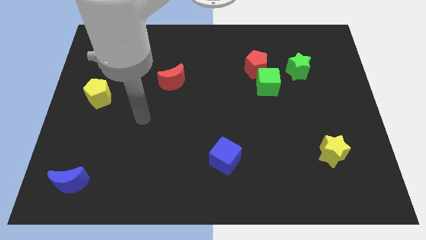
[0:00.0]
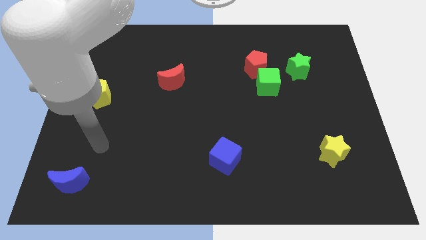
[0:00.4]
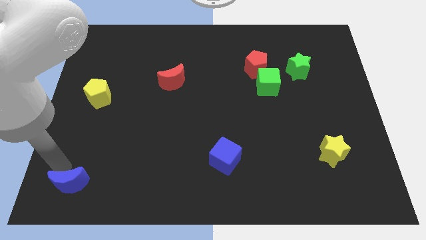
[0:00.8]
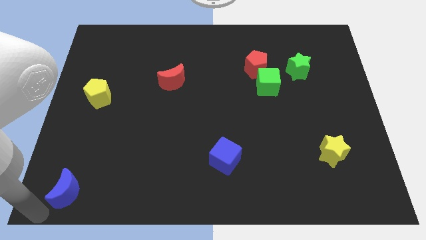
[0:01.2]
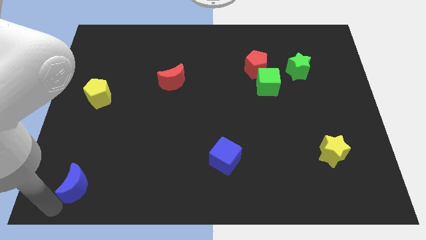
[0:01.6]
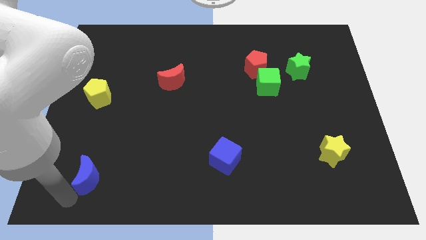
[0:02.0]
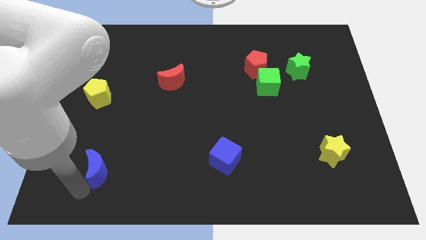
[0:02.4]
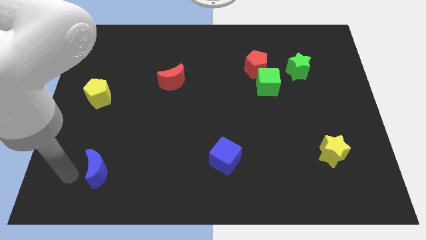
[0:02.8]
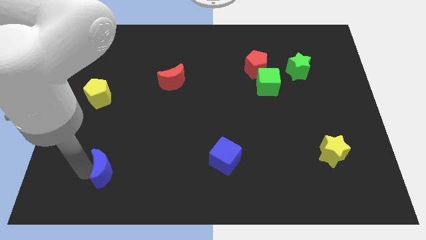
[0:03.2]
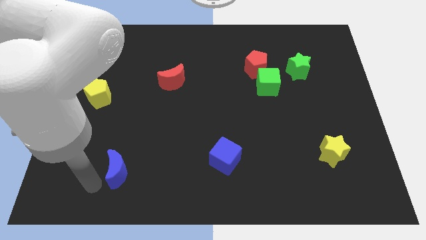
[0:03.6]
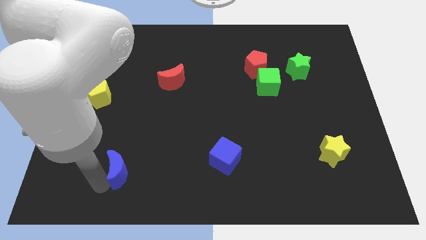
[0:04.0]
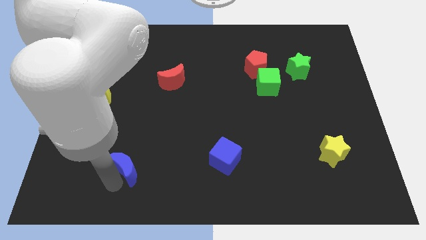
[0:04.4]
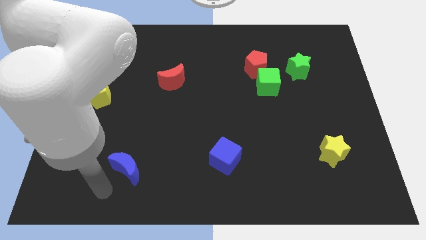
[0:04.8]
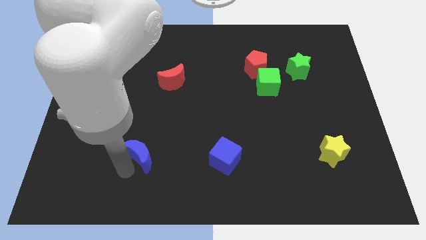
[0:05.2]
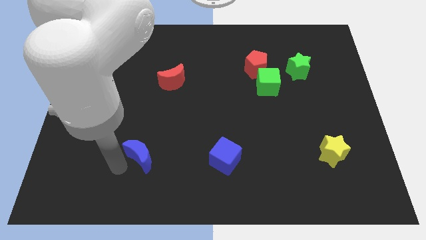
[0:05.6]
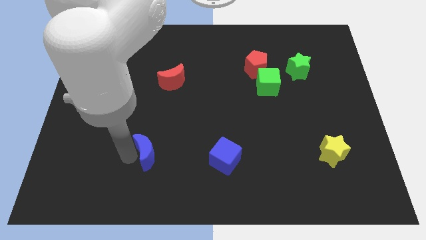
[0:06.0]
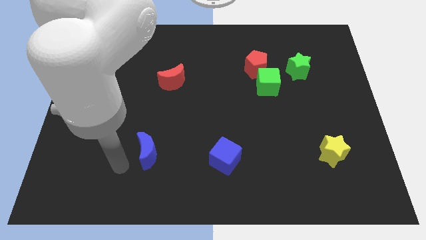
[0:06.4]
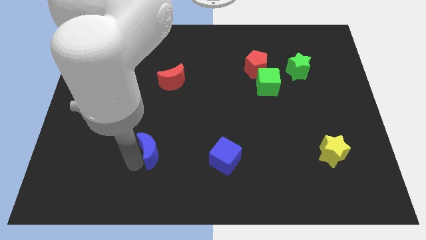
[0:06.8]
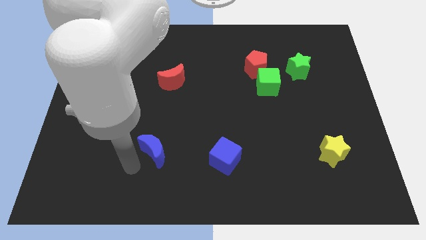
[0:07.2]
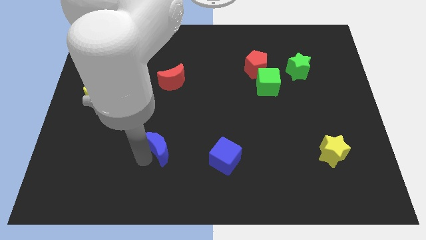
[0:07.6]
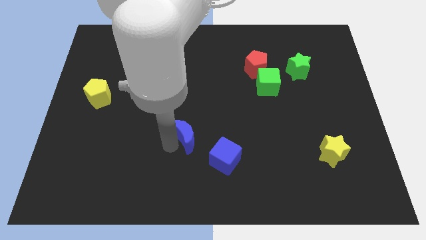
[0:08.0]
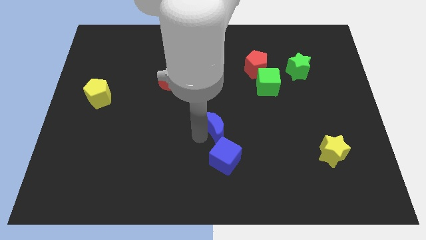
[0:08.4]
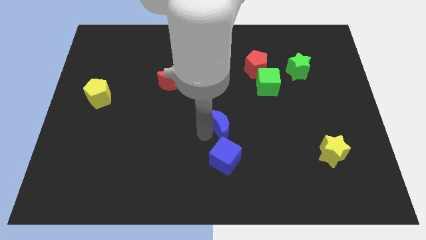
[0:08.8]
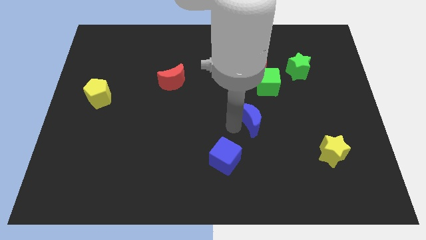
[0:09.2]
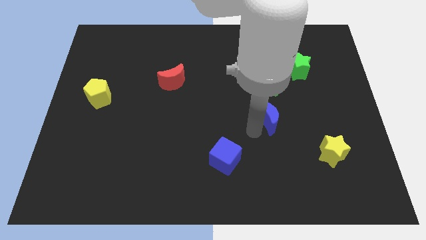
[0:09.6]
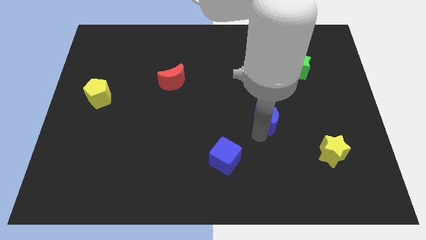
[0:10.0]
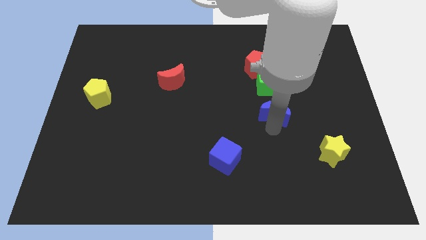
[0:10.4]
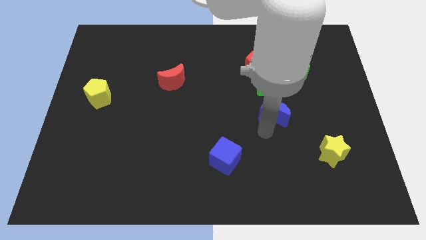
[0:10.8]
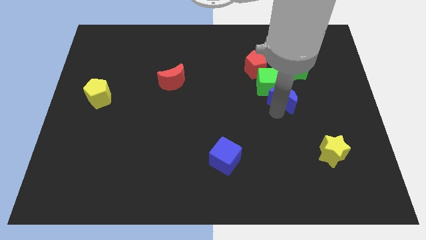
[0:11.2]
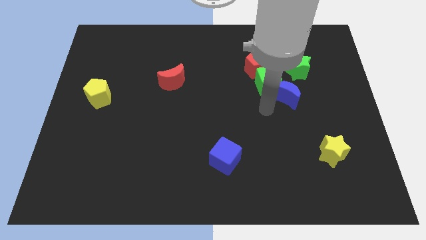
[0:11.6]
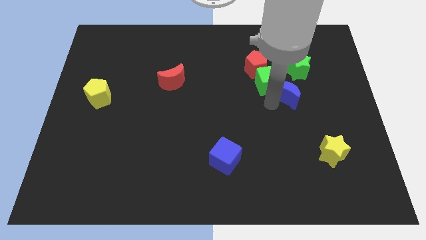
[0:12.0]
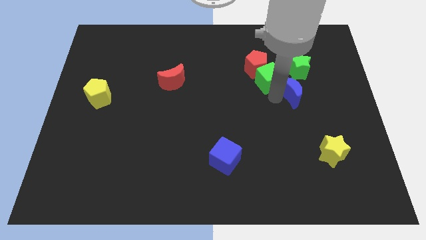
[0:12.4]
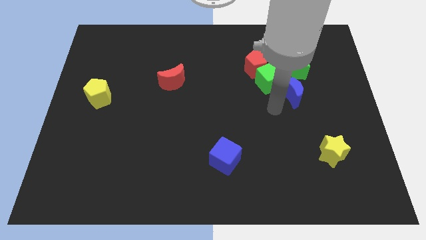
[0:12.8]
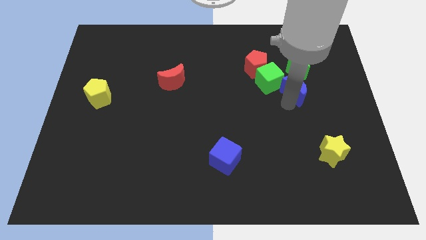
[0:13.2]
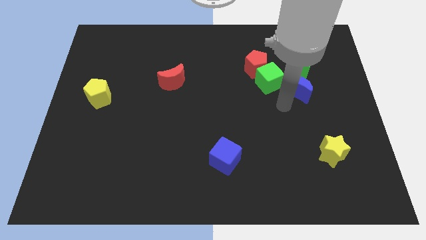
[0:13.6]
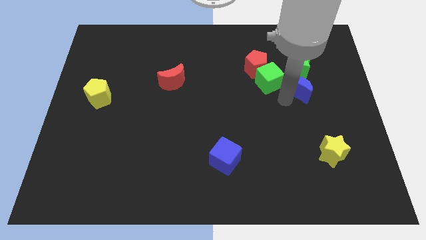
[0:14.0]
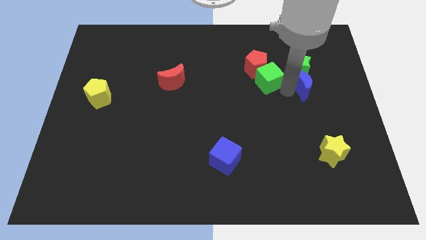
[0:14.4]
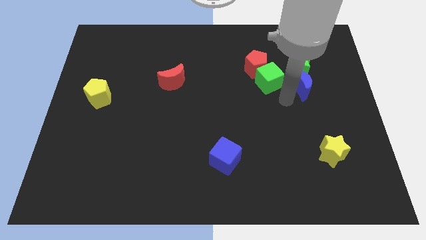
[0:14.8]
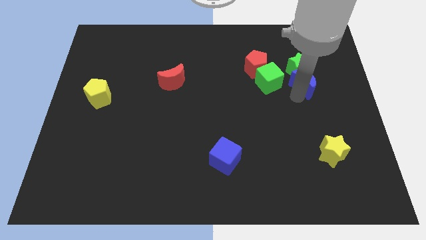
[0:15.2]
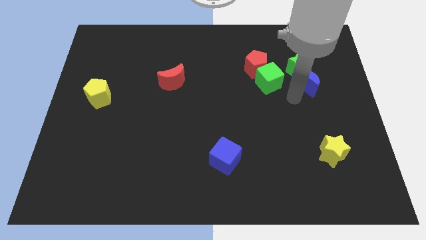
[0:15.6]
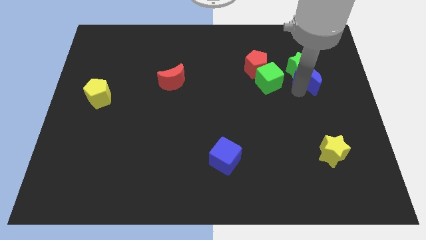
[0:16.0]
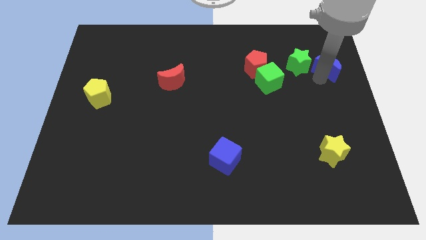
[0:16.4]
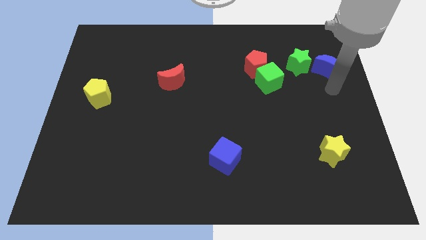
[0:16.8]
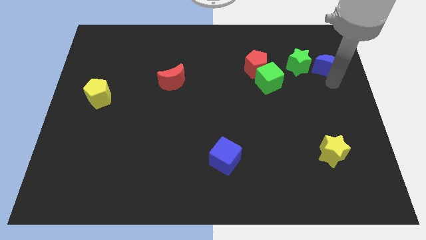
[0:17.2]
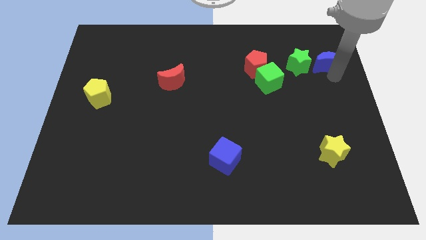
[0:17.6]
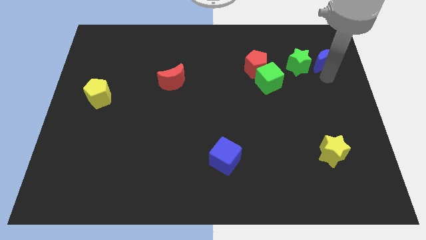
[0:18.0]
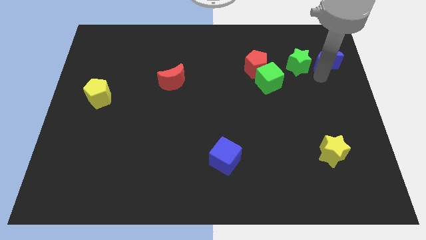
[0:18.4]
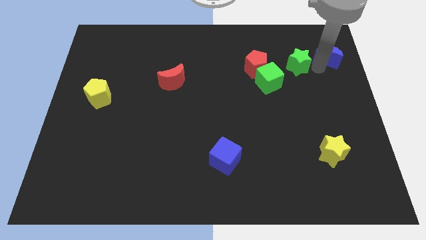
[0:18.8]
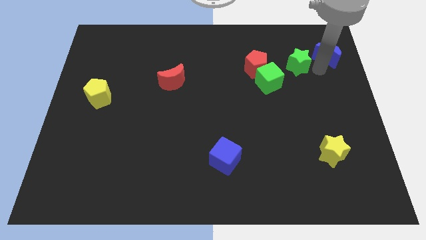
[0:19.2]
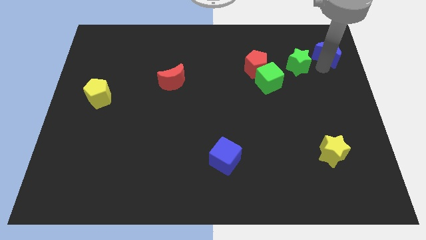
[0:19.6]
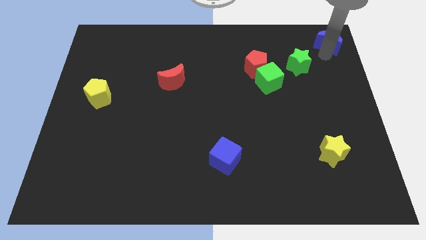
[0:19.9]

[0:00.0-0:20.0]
put the blue moon to the top right of the board

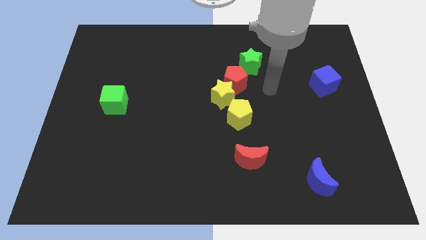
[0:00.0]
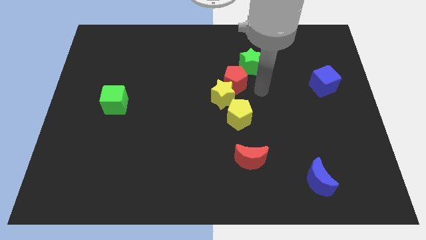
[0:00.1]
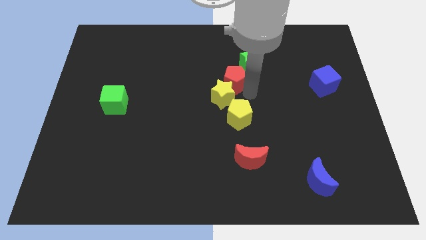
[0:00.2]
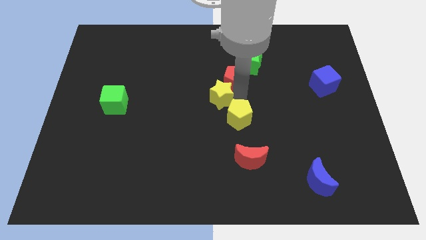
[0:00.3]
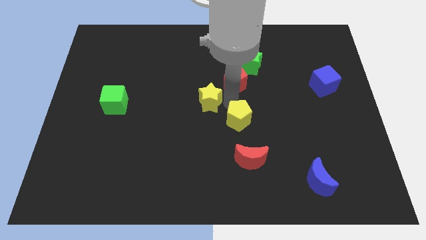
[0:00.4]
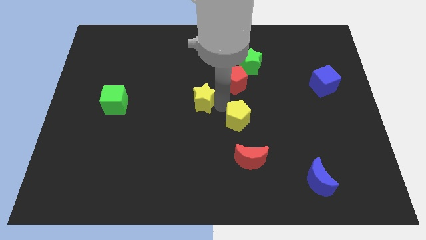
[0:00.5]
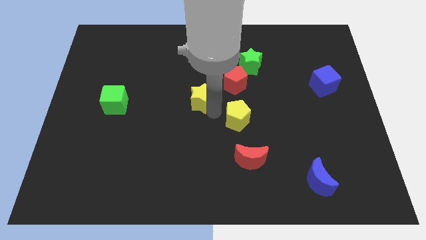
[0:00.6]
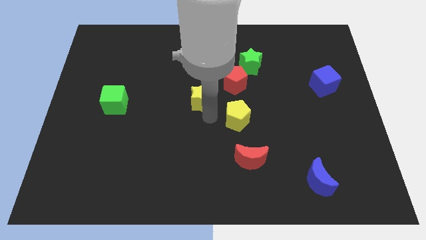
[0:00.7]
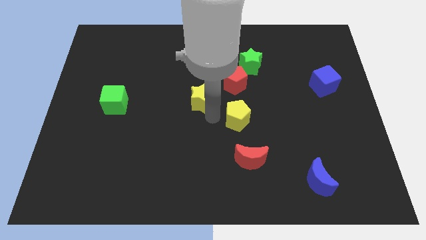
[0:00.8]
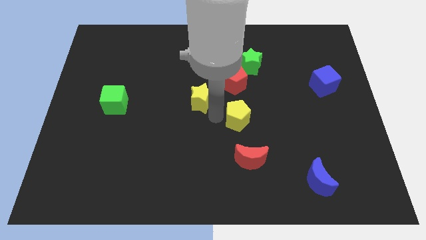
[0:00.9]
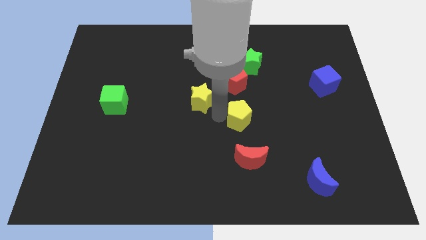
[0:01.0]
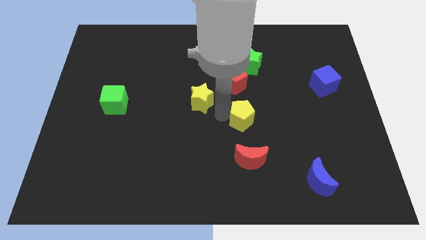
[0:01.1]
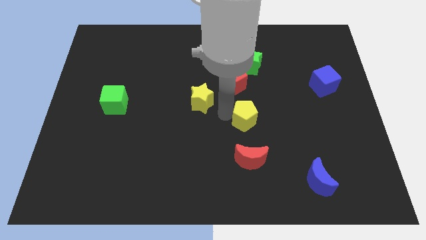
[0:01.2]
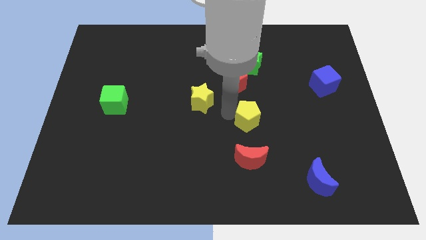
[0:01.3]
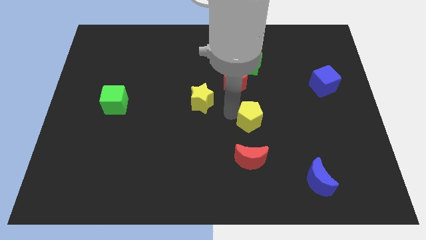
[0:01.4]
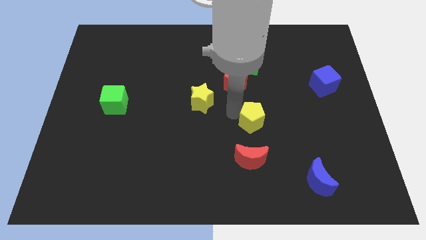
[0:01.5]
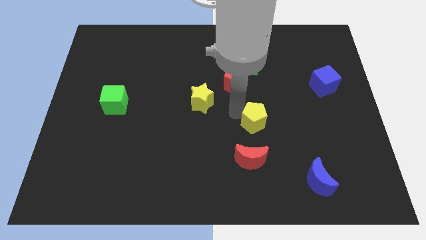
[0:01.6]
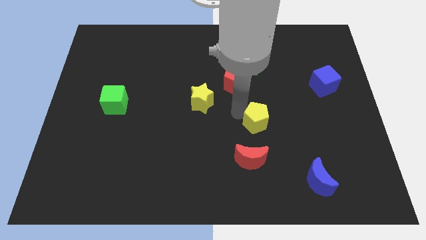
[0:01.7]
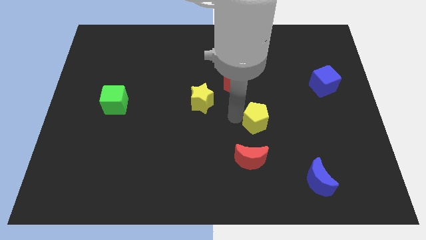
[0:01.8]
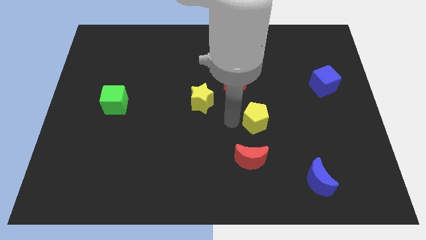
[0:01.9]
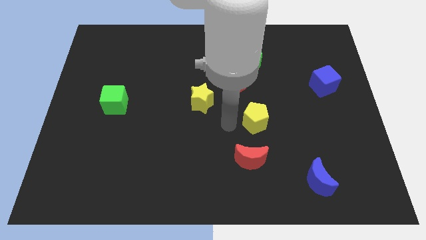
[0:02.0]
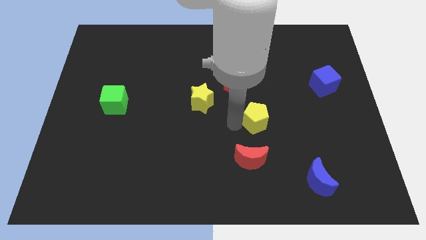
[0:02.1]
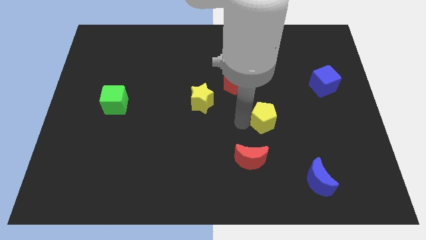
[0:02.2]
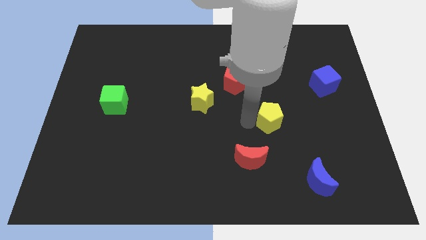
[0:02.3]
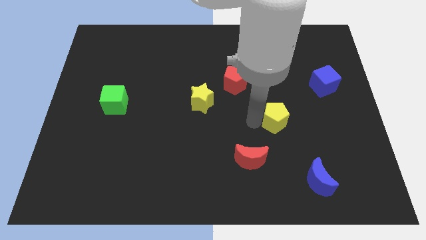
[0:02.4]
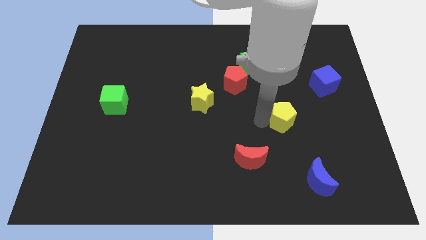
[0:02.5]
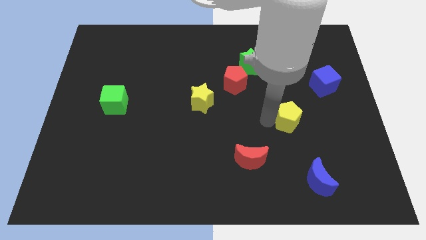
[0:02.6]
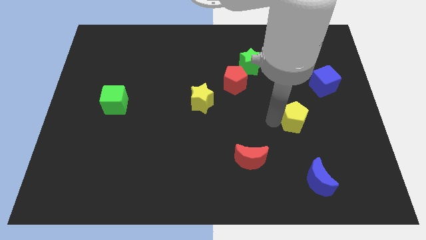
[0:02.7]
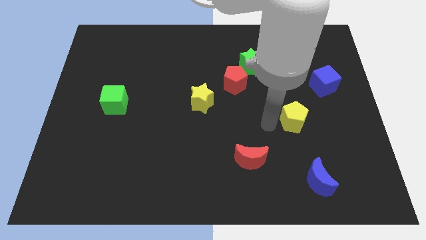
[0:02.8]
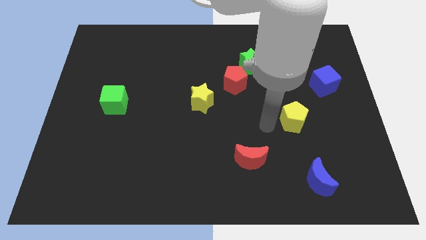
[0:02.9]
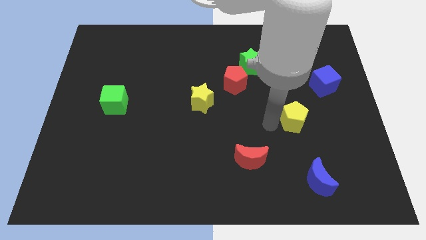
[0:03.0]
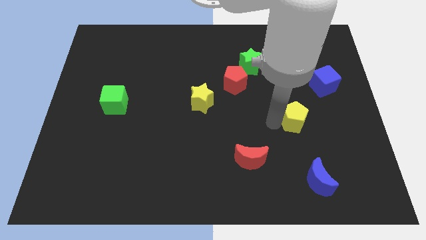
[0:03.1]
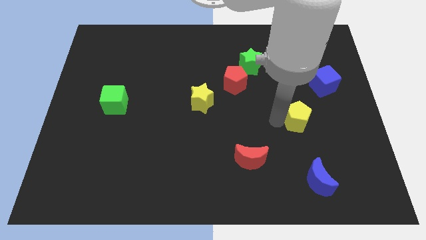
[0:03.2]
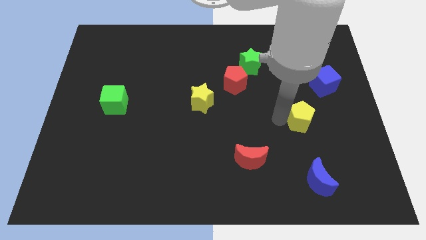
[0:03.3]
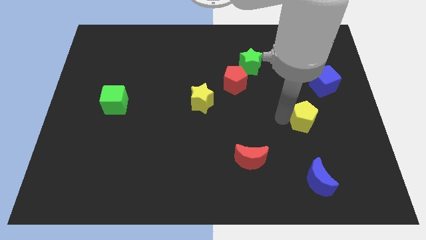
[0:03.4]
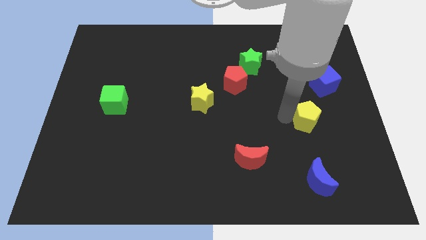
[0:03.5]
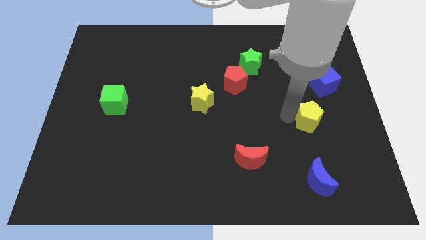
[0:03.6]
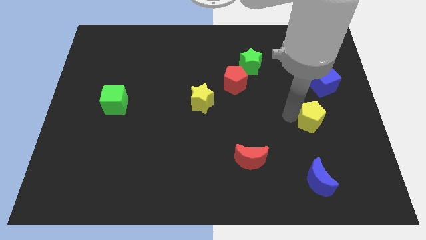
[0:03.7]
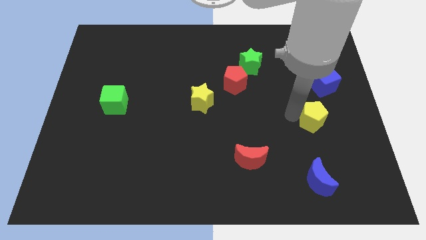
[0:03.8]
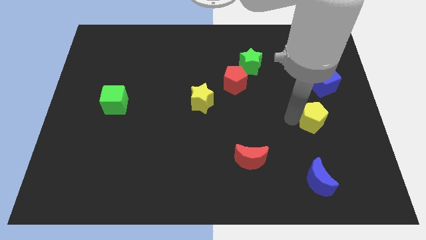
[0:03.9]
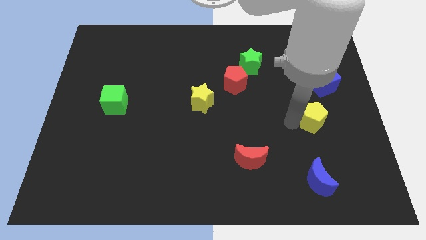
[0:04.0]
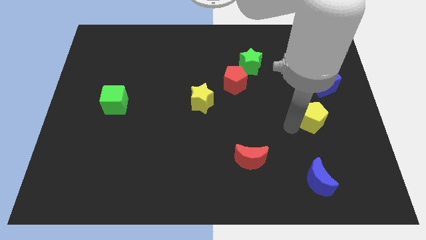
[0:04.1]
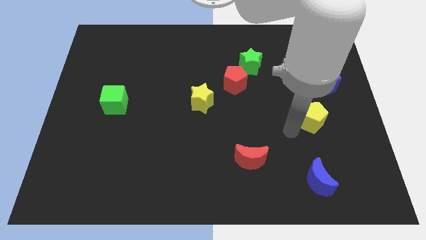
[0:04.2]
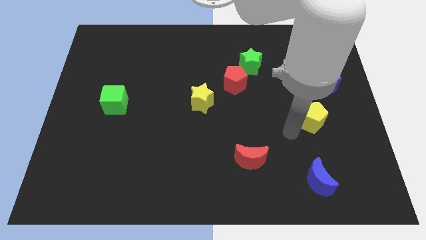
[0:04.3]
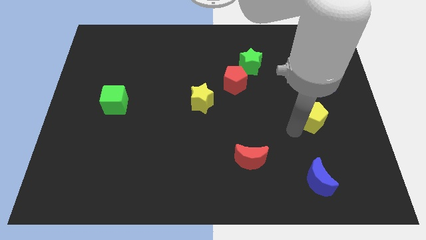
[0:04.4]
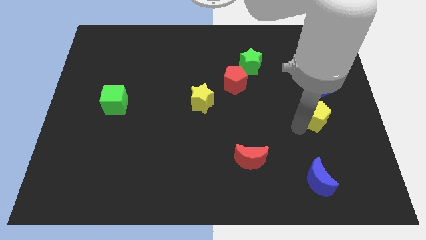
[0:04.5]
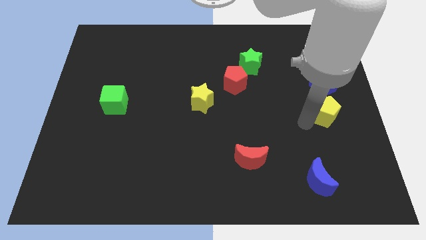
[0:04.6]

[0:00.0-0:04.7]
move the yellow pentagon to the center right
